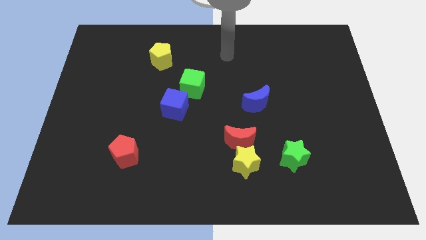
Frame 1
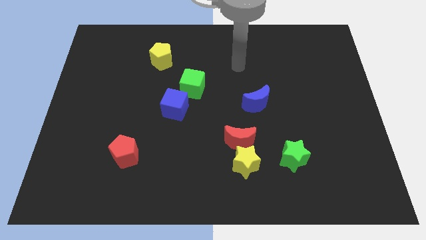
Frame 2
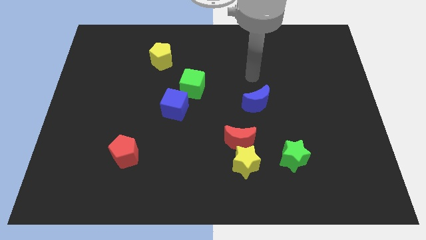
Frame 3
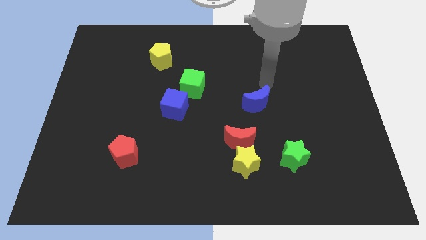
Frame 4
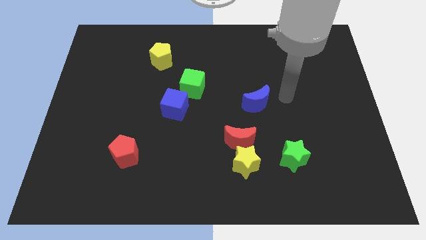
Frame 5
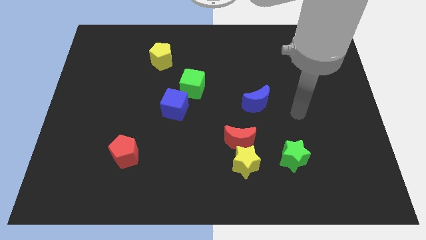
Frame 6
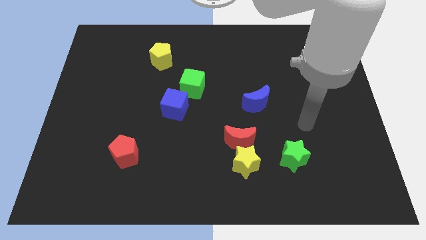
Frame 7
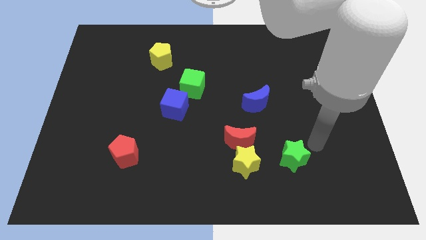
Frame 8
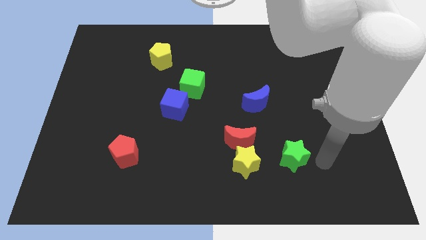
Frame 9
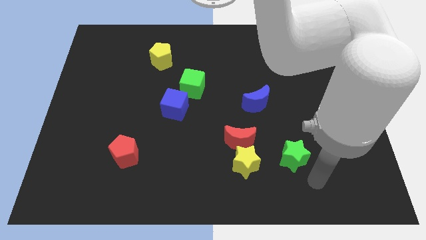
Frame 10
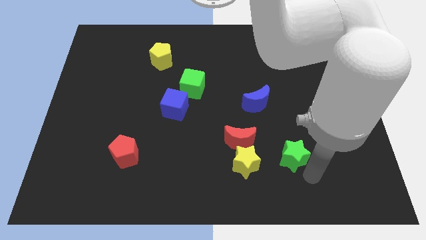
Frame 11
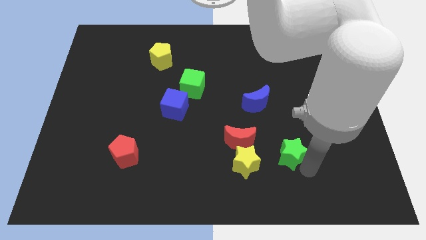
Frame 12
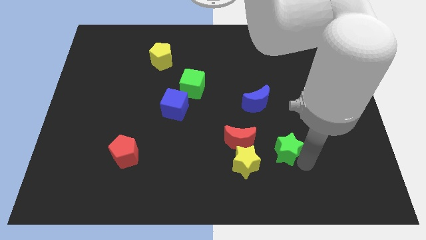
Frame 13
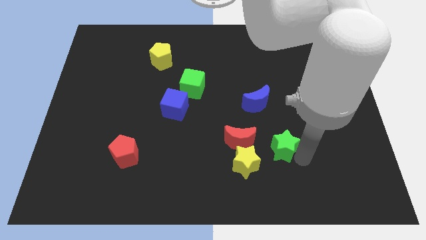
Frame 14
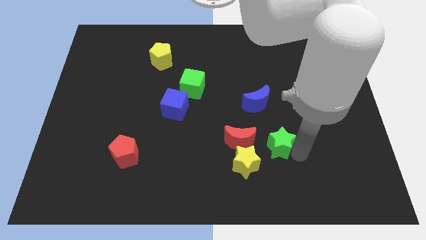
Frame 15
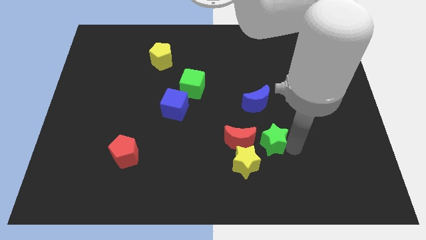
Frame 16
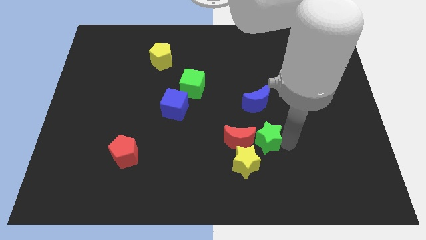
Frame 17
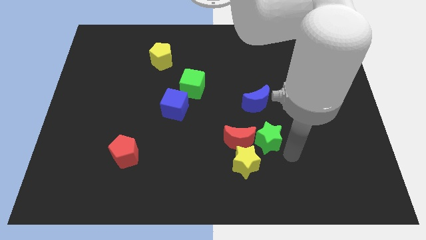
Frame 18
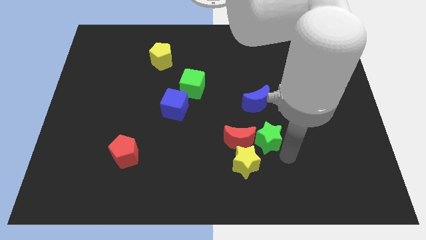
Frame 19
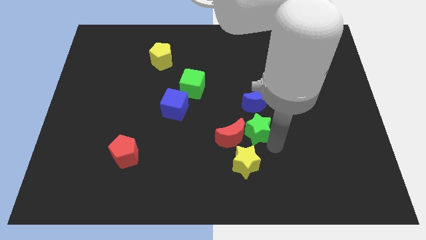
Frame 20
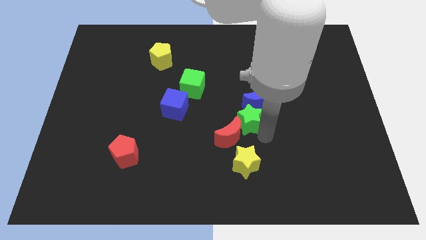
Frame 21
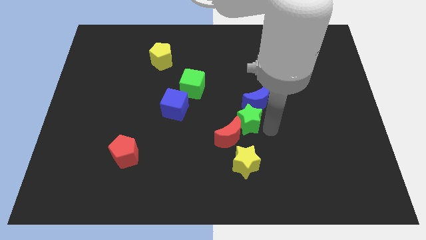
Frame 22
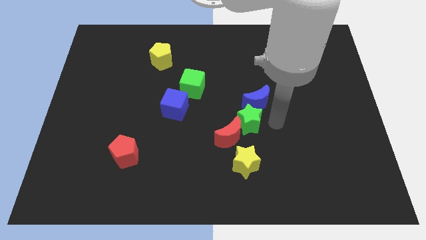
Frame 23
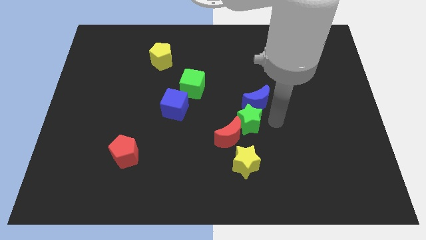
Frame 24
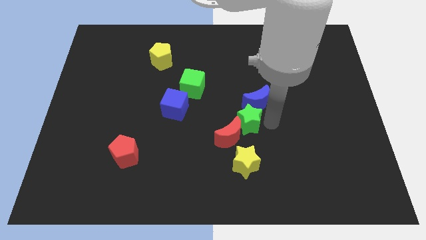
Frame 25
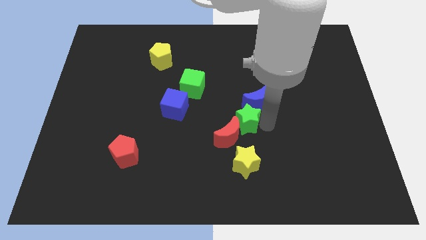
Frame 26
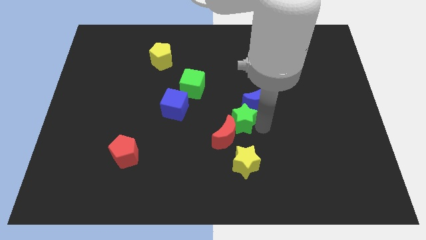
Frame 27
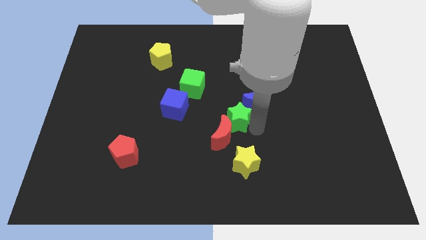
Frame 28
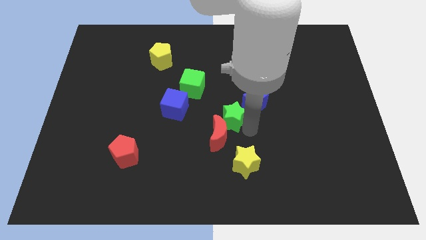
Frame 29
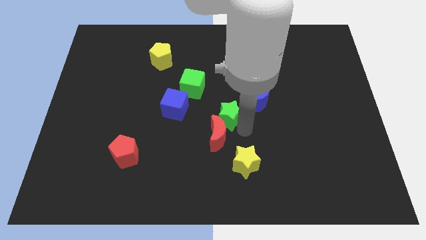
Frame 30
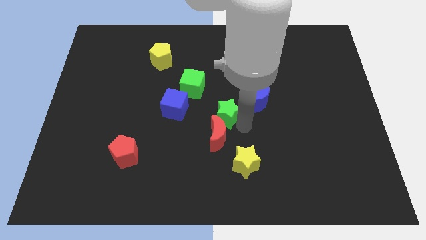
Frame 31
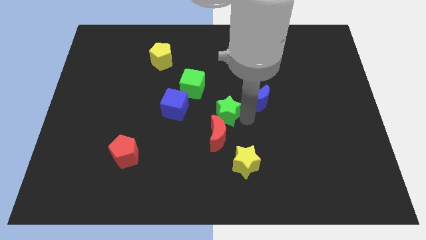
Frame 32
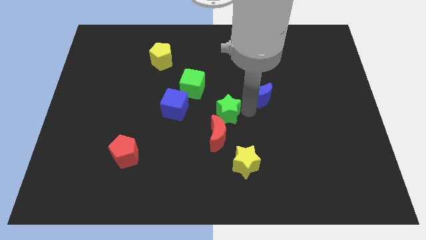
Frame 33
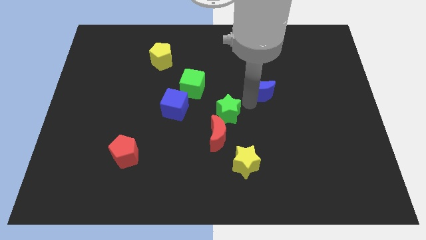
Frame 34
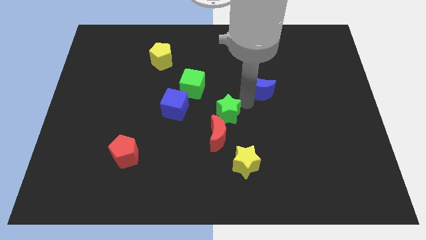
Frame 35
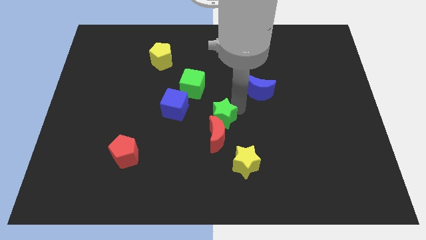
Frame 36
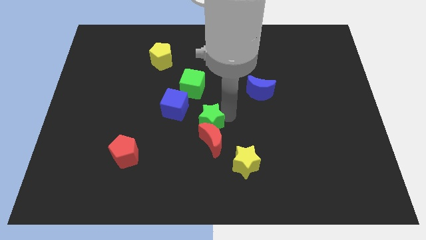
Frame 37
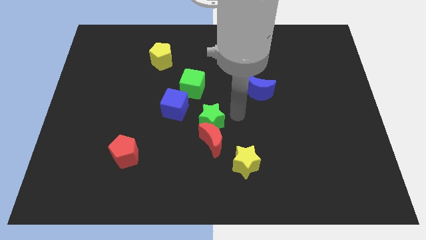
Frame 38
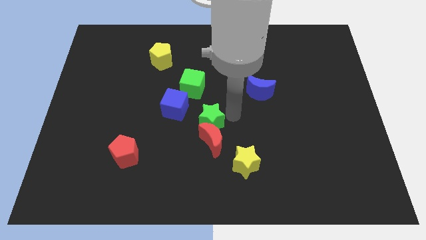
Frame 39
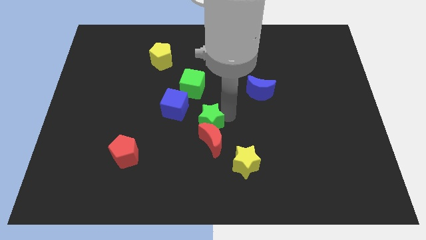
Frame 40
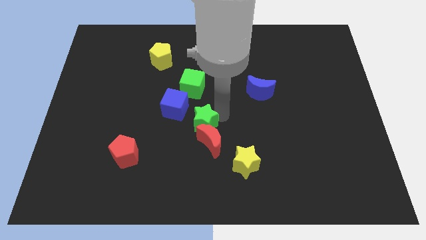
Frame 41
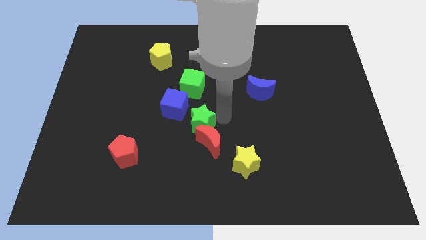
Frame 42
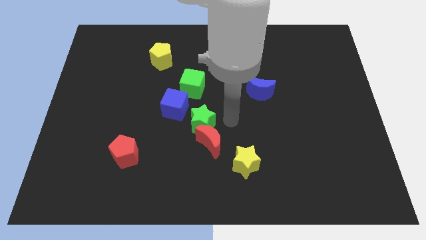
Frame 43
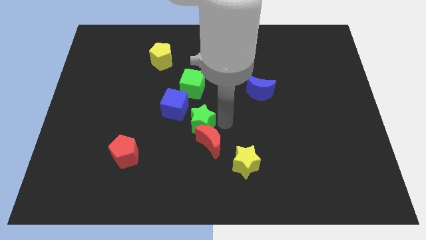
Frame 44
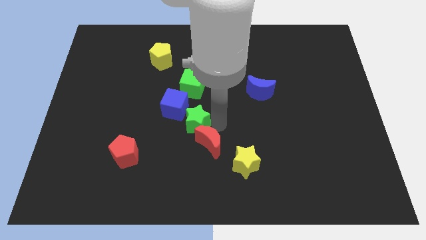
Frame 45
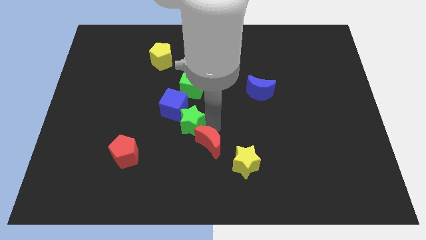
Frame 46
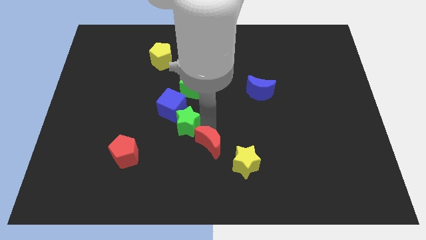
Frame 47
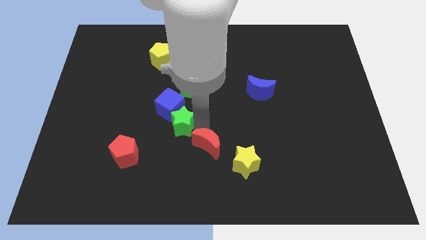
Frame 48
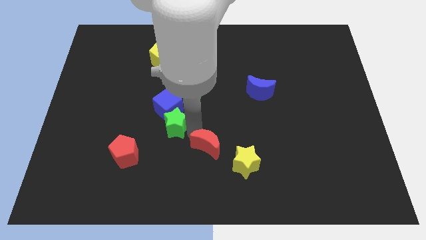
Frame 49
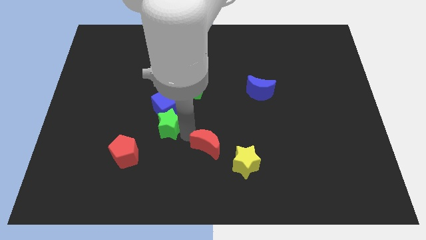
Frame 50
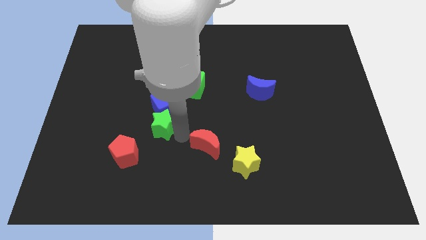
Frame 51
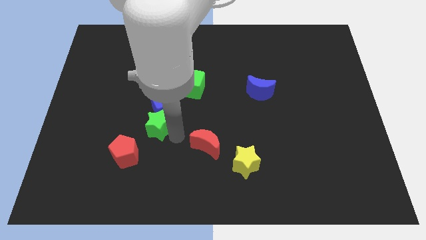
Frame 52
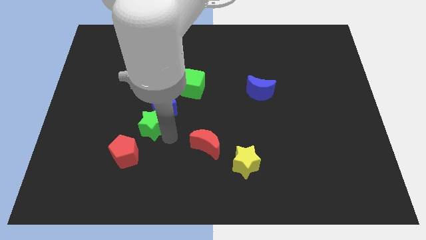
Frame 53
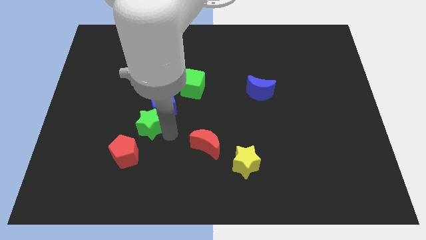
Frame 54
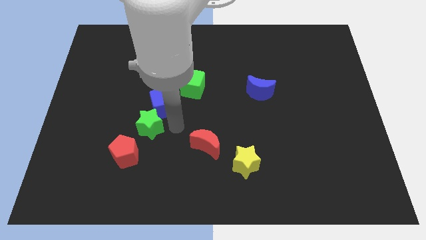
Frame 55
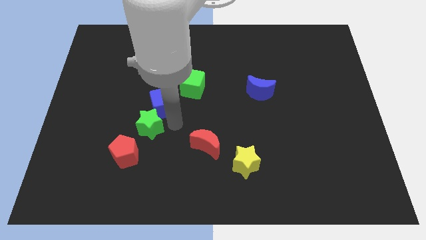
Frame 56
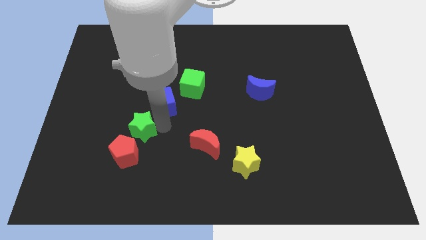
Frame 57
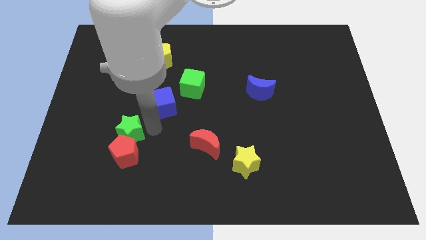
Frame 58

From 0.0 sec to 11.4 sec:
put the green star to the top left of the red pentagon

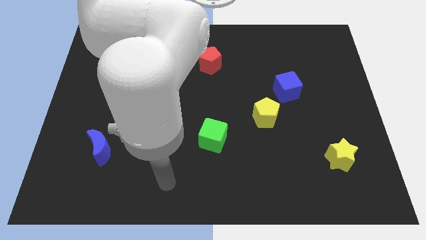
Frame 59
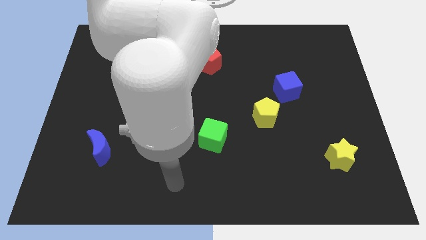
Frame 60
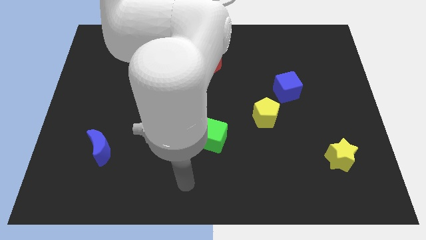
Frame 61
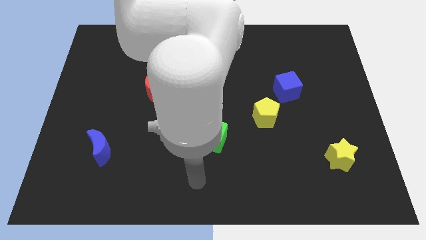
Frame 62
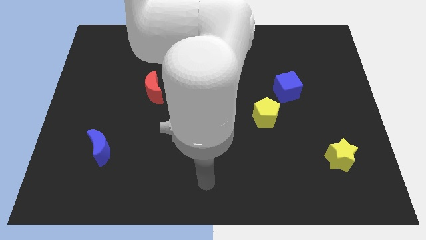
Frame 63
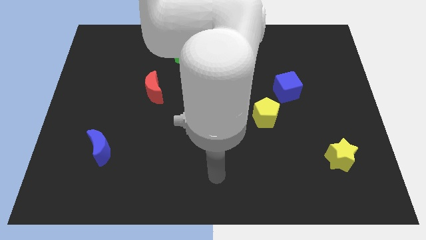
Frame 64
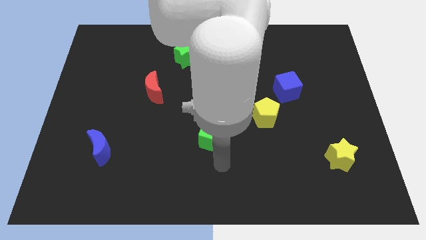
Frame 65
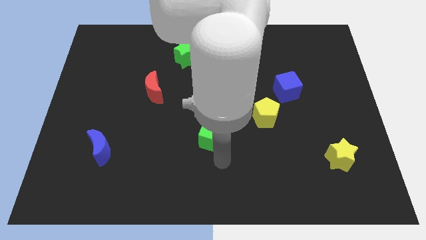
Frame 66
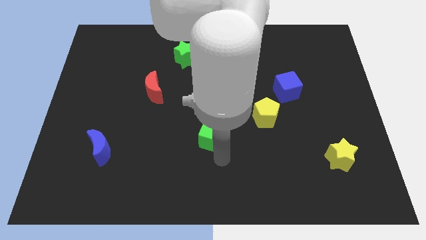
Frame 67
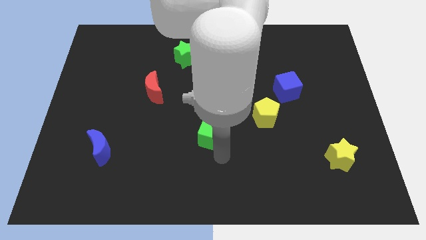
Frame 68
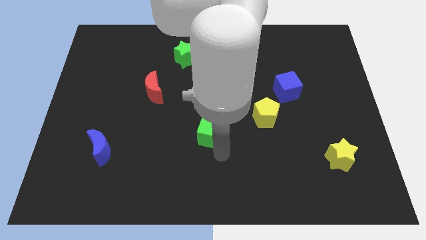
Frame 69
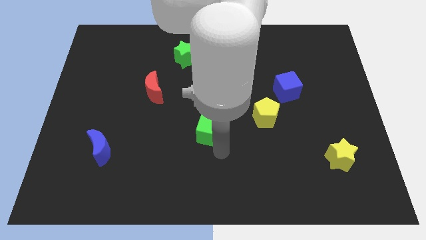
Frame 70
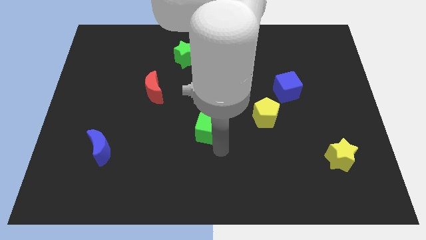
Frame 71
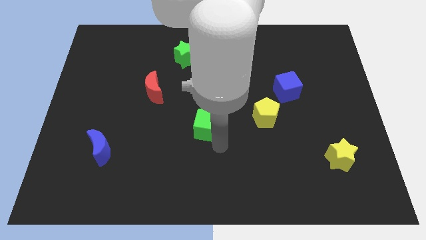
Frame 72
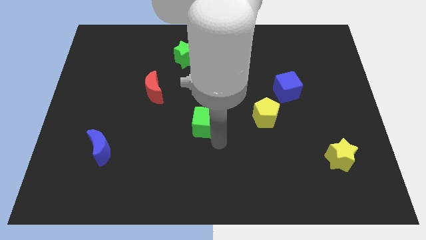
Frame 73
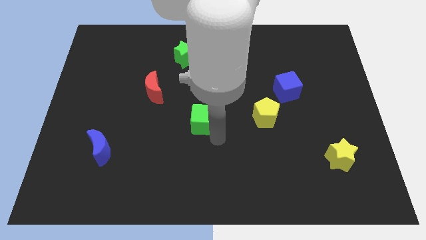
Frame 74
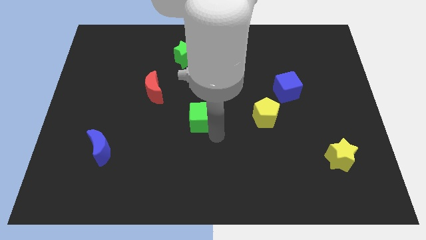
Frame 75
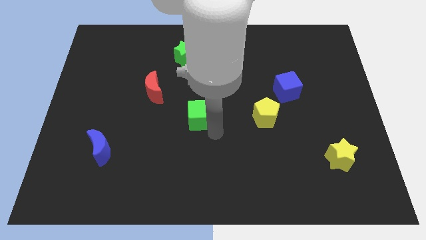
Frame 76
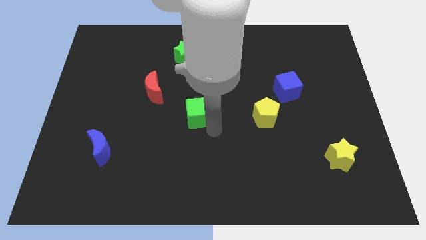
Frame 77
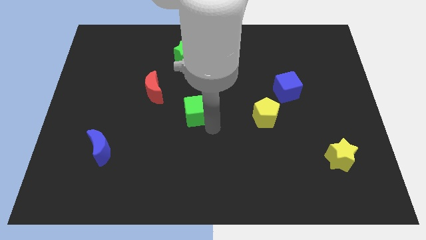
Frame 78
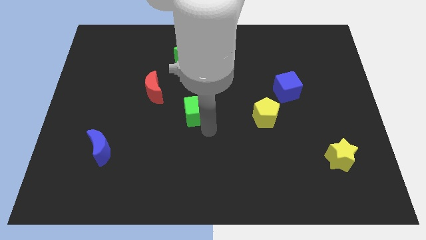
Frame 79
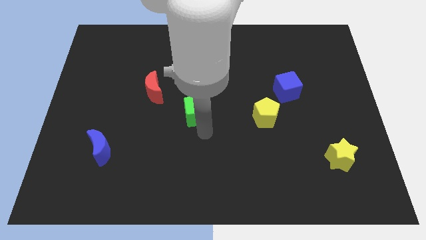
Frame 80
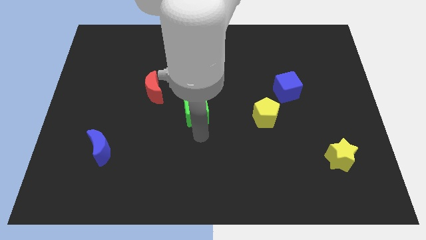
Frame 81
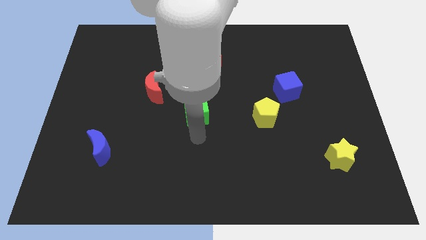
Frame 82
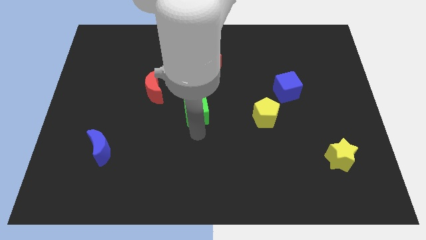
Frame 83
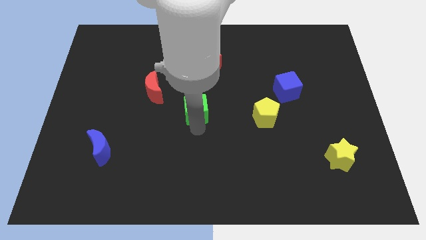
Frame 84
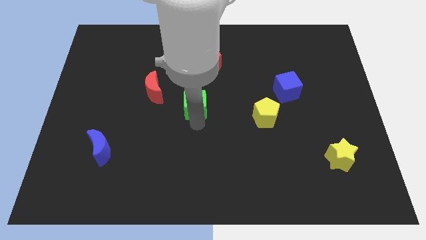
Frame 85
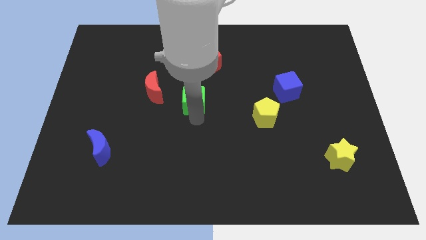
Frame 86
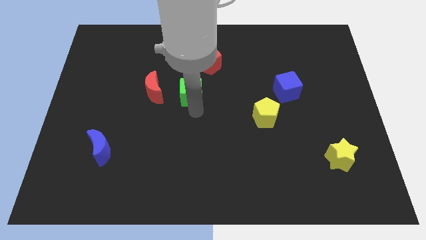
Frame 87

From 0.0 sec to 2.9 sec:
put the green cube to the bottom left of the red pentagon
